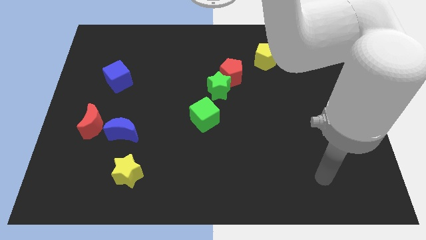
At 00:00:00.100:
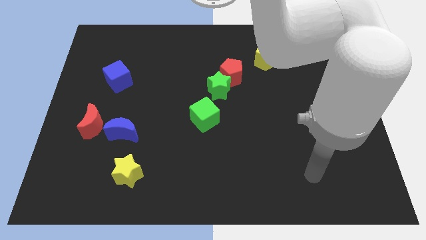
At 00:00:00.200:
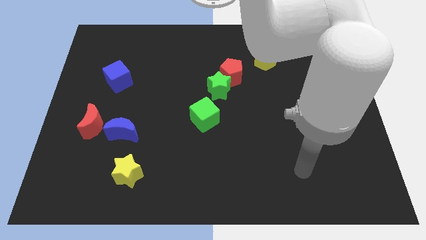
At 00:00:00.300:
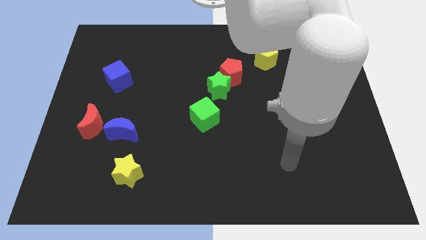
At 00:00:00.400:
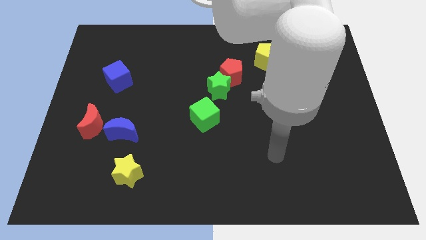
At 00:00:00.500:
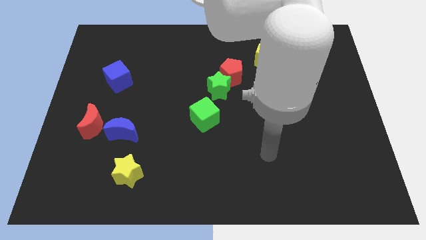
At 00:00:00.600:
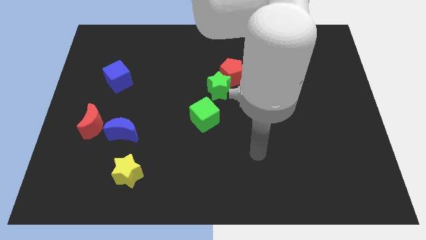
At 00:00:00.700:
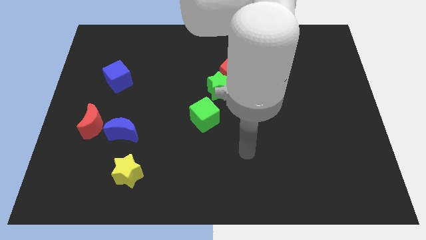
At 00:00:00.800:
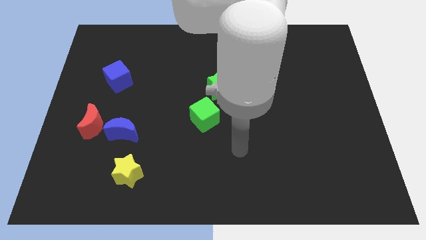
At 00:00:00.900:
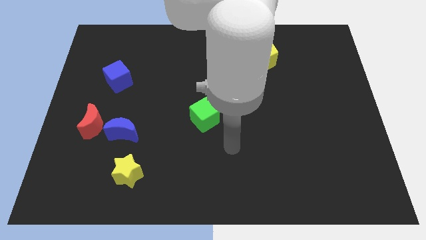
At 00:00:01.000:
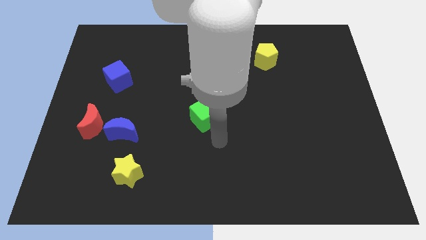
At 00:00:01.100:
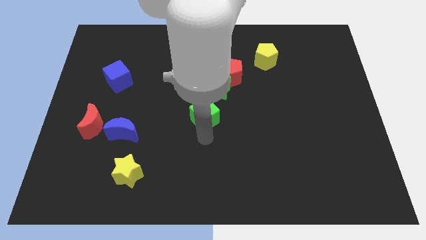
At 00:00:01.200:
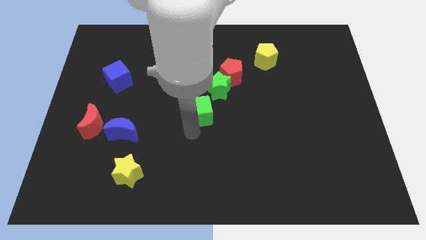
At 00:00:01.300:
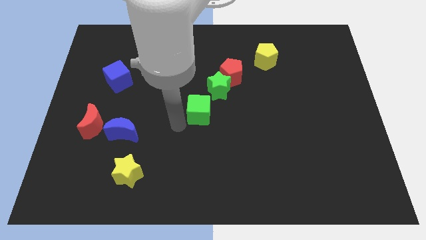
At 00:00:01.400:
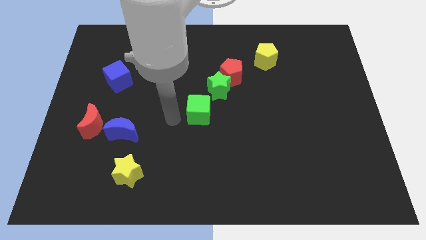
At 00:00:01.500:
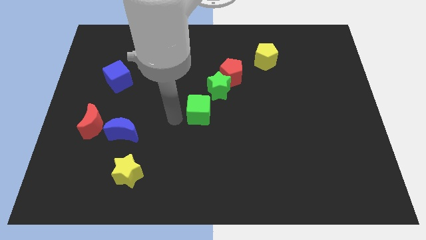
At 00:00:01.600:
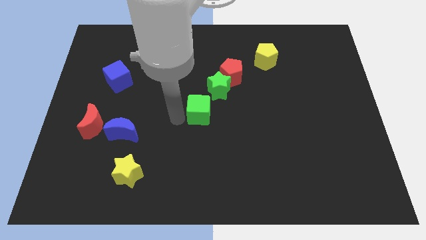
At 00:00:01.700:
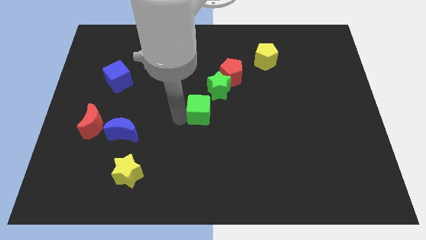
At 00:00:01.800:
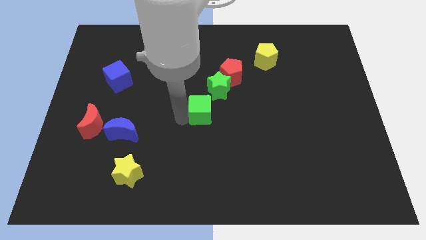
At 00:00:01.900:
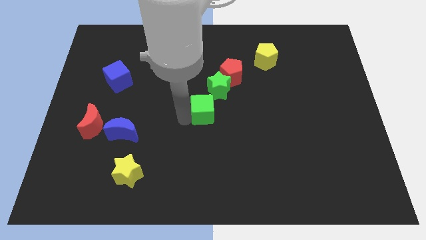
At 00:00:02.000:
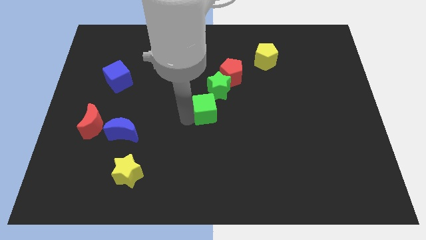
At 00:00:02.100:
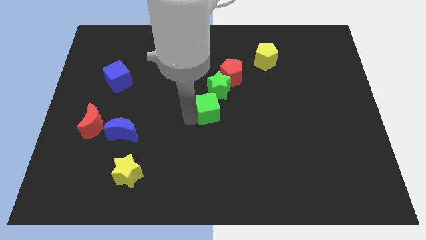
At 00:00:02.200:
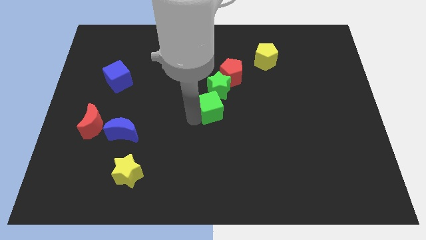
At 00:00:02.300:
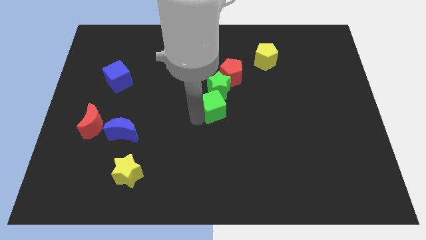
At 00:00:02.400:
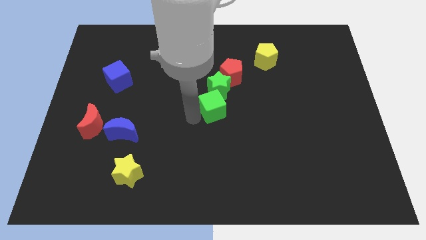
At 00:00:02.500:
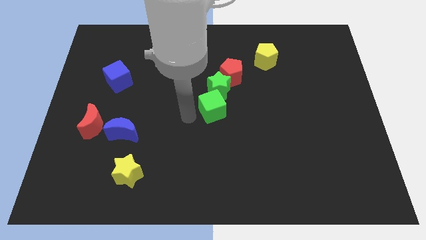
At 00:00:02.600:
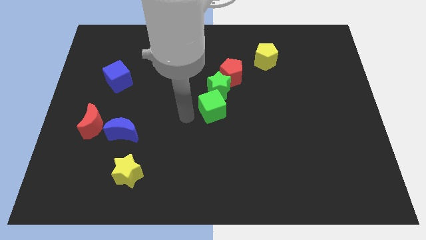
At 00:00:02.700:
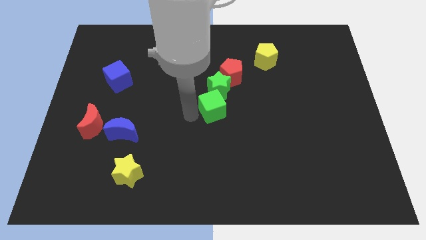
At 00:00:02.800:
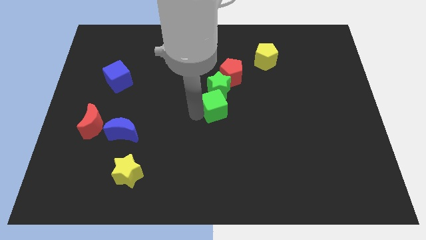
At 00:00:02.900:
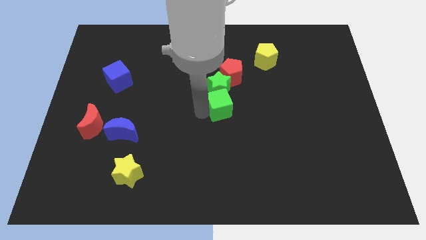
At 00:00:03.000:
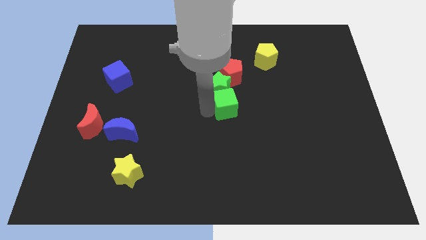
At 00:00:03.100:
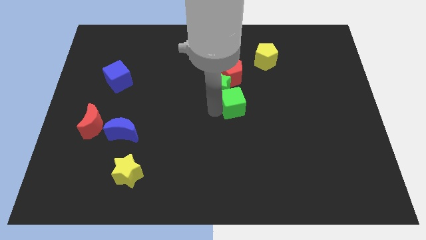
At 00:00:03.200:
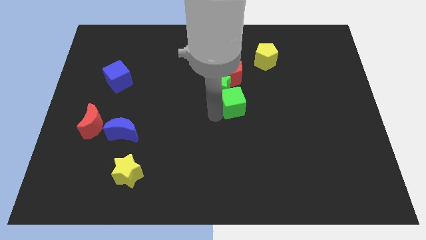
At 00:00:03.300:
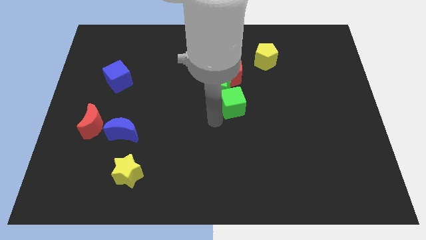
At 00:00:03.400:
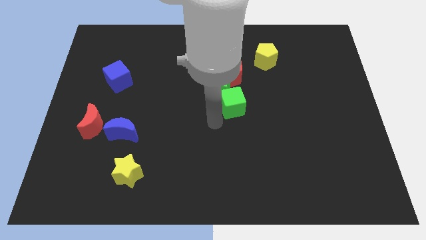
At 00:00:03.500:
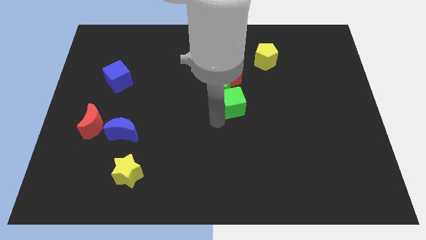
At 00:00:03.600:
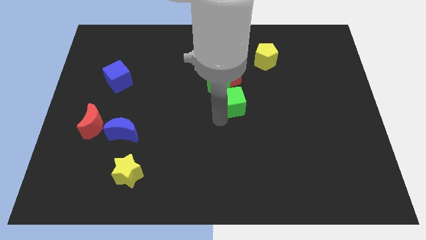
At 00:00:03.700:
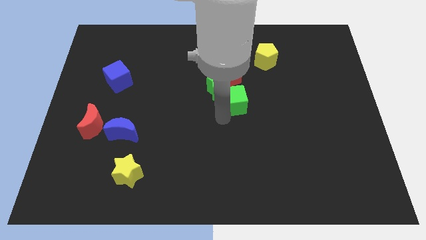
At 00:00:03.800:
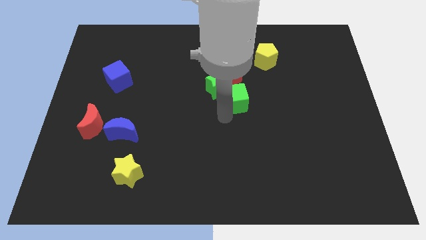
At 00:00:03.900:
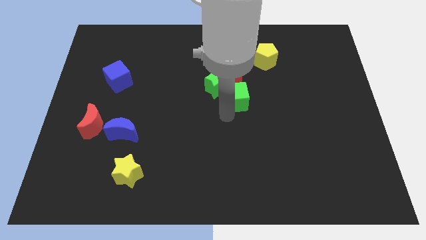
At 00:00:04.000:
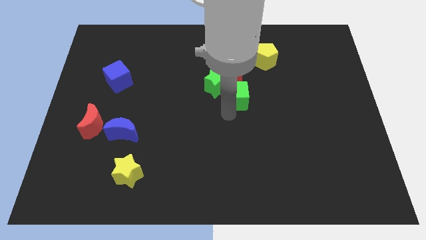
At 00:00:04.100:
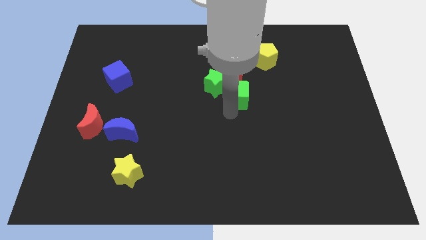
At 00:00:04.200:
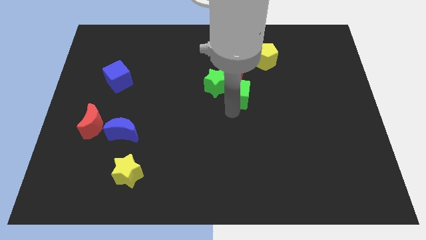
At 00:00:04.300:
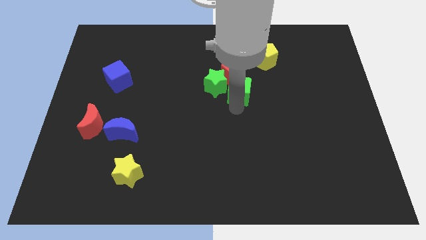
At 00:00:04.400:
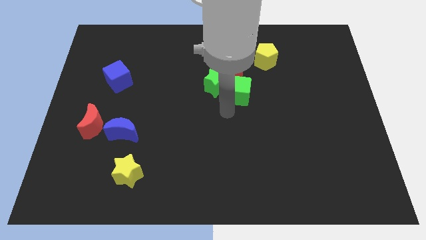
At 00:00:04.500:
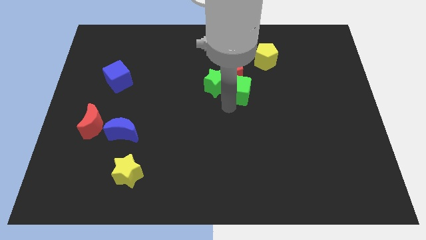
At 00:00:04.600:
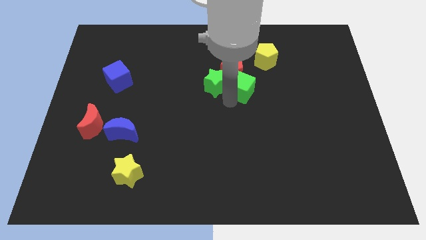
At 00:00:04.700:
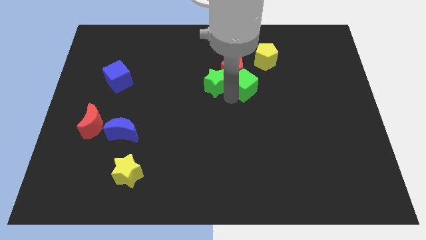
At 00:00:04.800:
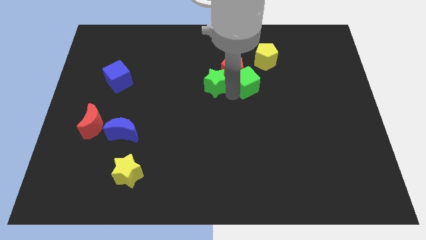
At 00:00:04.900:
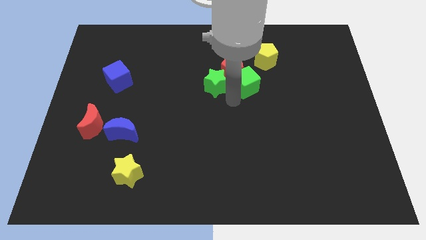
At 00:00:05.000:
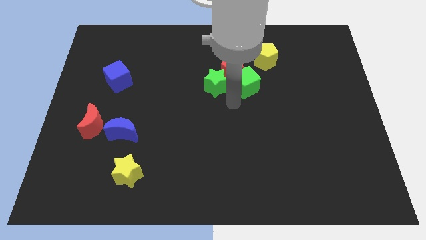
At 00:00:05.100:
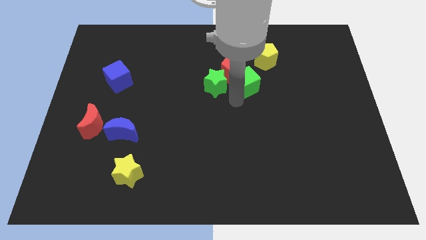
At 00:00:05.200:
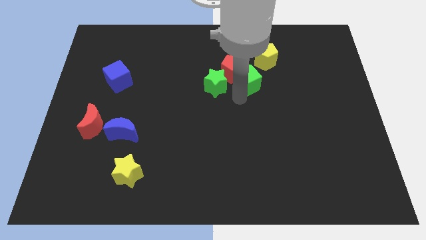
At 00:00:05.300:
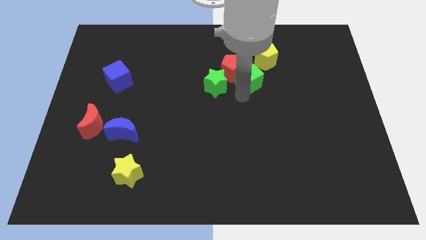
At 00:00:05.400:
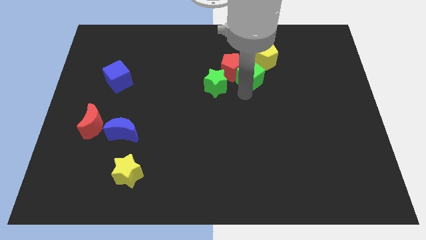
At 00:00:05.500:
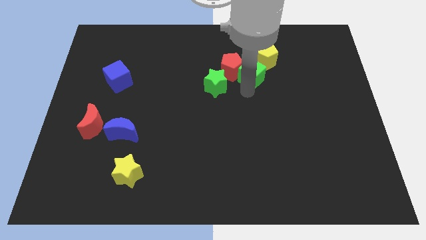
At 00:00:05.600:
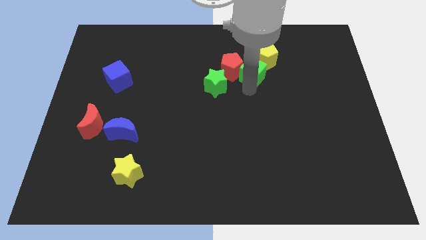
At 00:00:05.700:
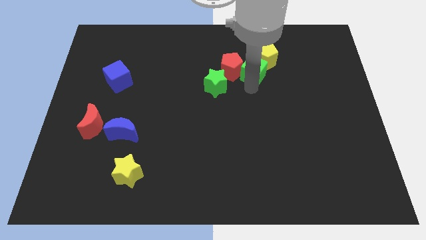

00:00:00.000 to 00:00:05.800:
put the green cube towards the yellow pentagon

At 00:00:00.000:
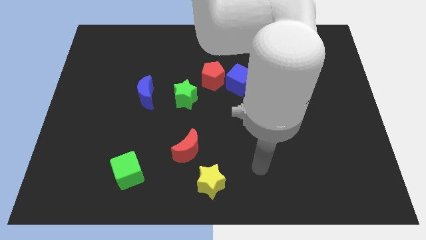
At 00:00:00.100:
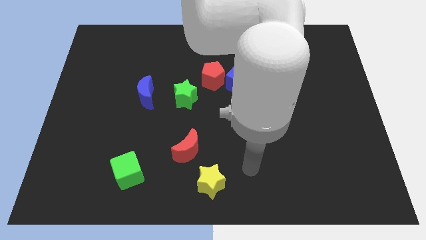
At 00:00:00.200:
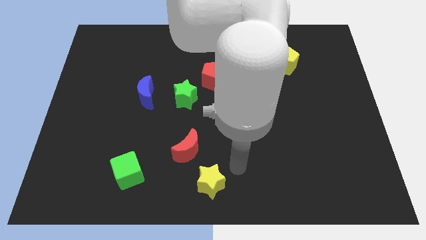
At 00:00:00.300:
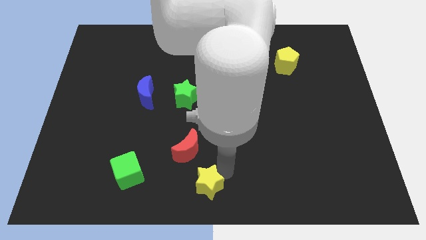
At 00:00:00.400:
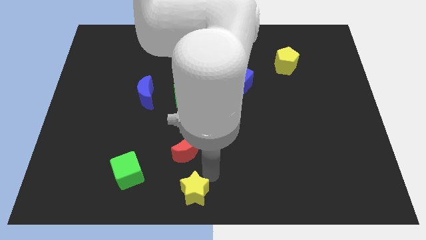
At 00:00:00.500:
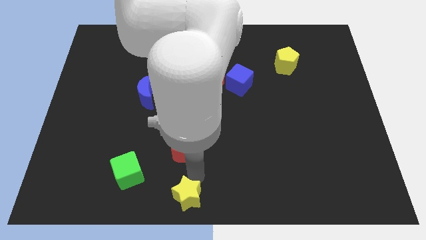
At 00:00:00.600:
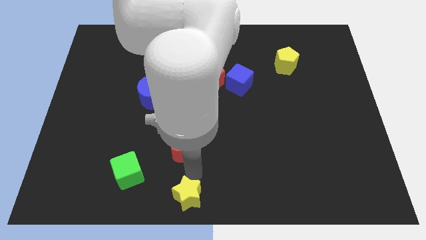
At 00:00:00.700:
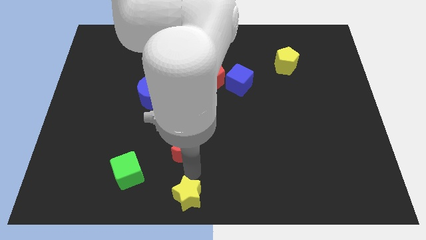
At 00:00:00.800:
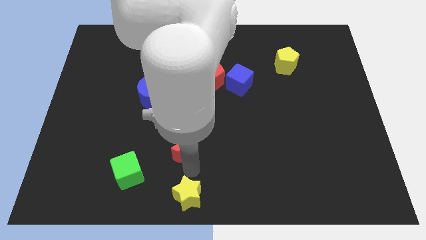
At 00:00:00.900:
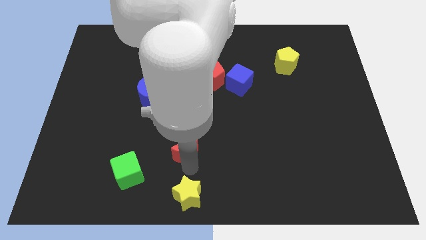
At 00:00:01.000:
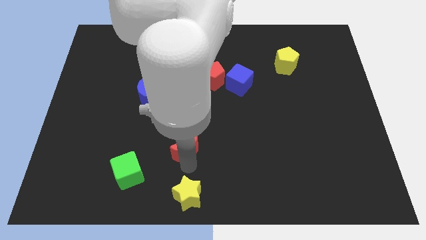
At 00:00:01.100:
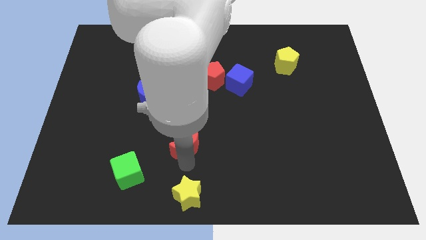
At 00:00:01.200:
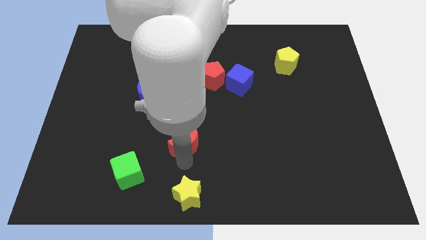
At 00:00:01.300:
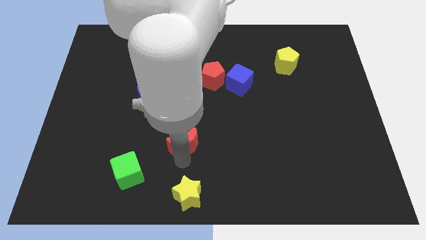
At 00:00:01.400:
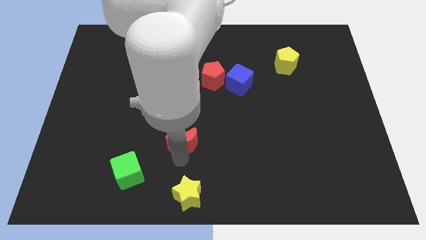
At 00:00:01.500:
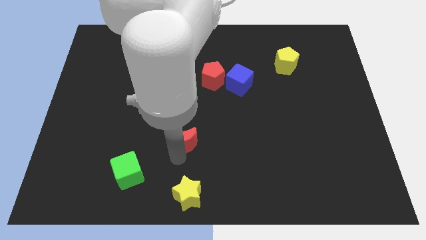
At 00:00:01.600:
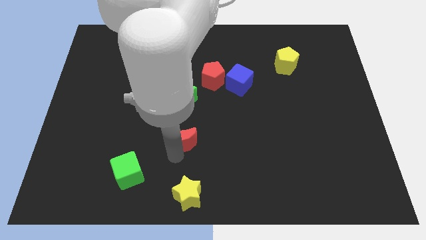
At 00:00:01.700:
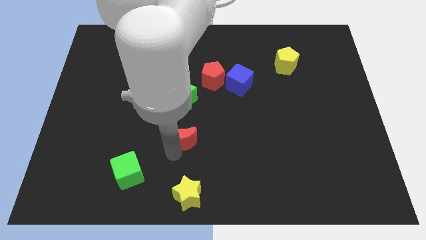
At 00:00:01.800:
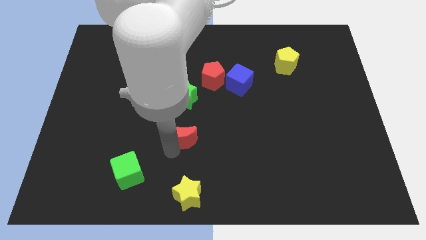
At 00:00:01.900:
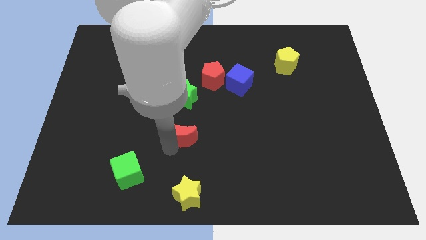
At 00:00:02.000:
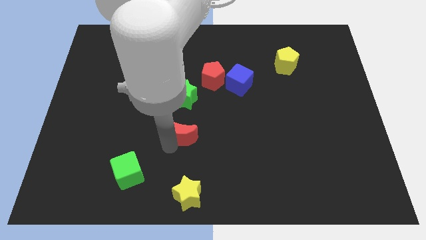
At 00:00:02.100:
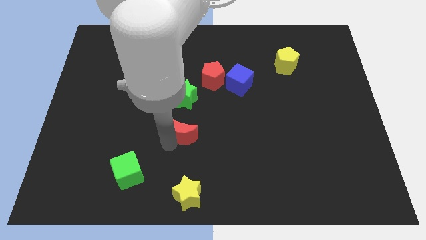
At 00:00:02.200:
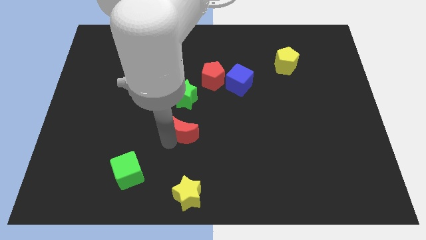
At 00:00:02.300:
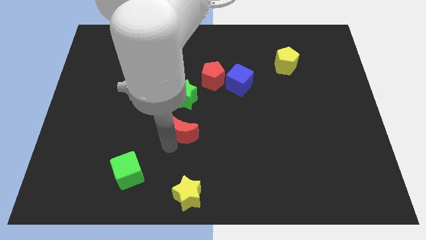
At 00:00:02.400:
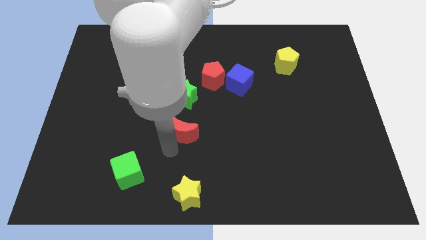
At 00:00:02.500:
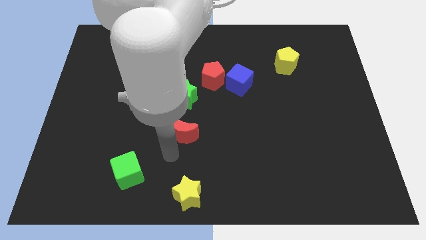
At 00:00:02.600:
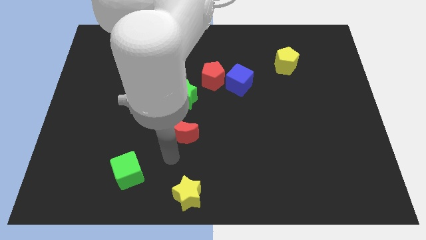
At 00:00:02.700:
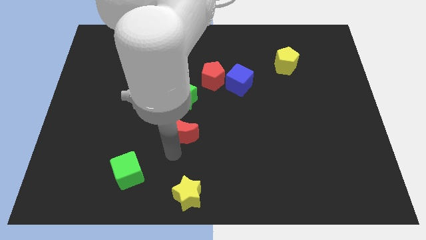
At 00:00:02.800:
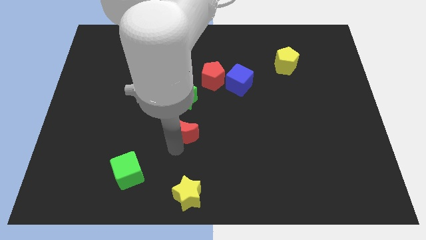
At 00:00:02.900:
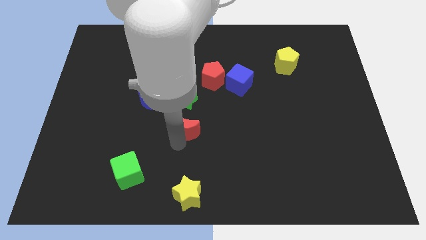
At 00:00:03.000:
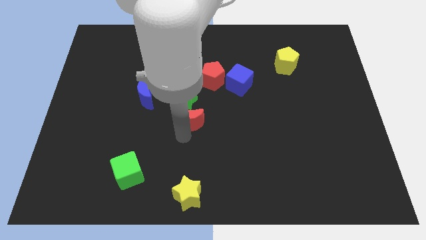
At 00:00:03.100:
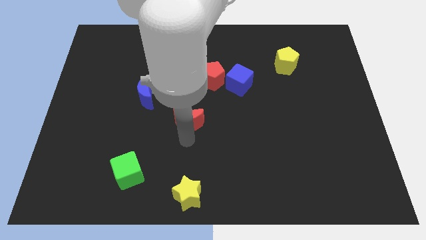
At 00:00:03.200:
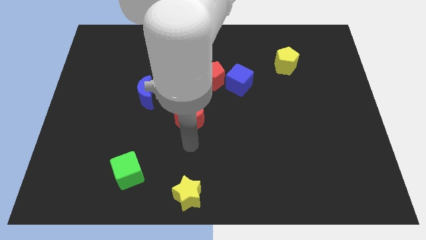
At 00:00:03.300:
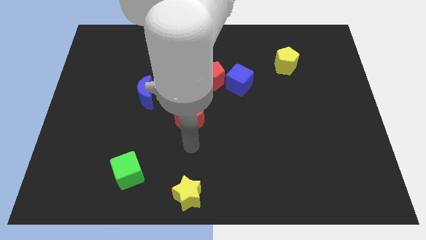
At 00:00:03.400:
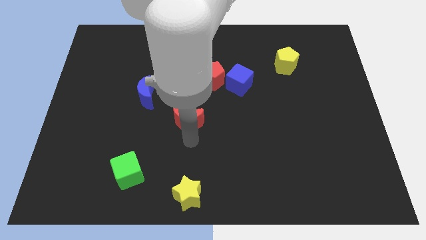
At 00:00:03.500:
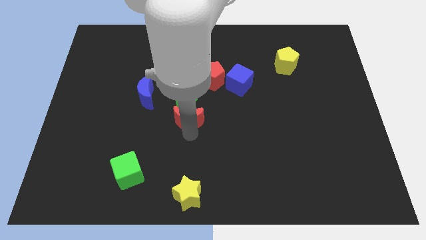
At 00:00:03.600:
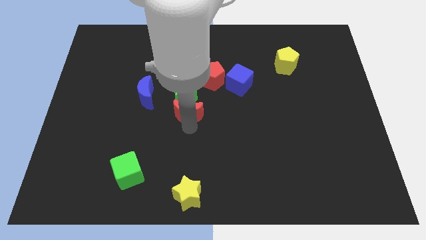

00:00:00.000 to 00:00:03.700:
slide the red moon close to the green star
